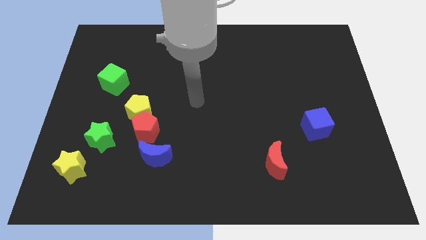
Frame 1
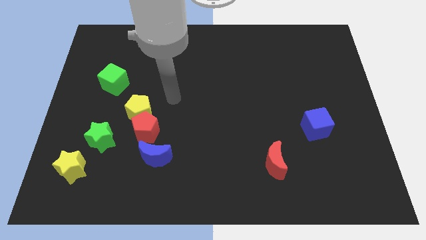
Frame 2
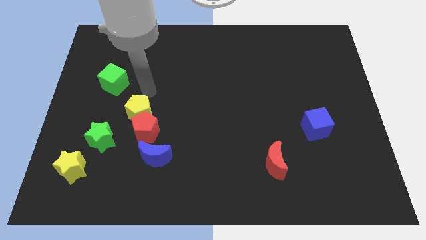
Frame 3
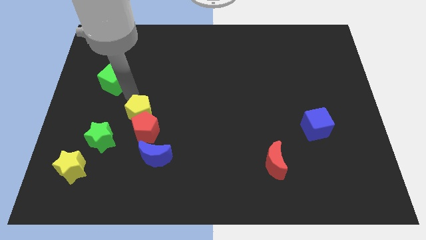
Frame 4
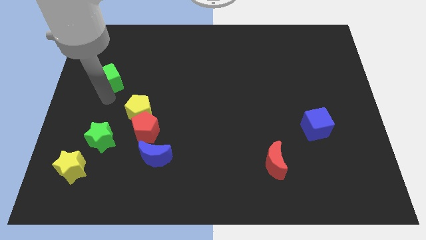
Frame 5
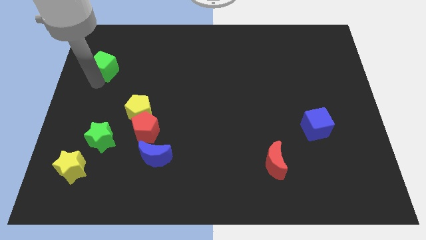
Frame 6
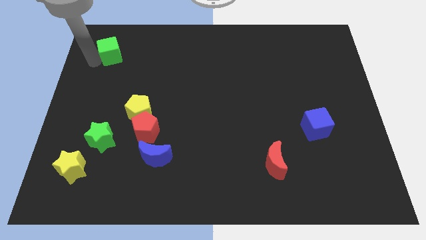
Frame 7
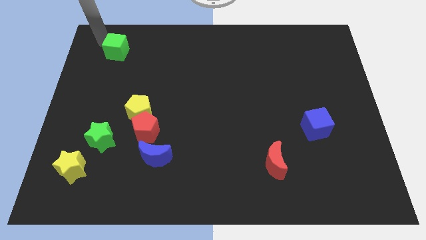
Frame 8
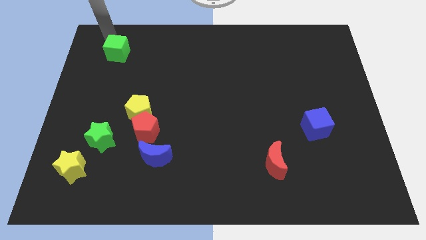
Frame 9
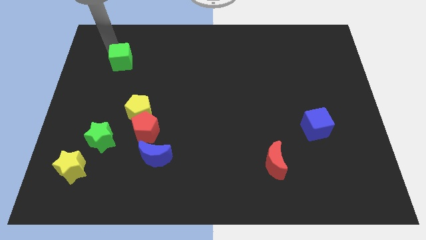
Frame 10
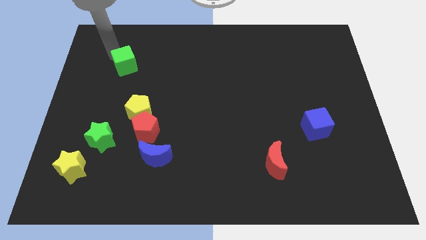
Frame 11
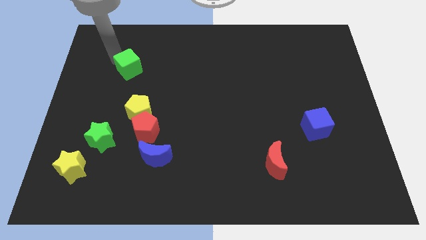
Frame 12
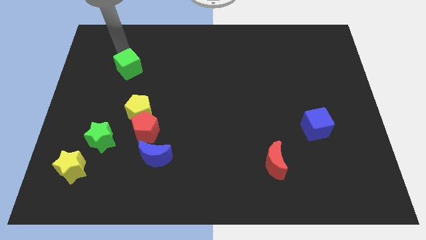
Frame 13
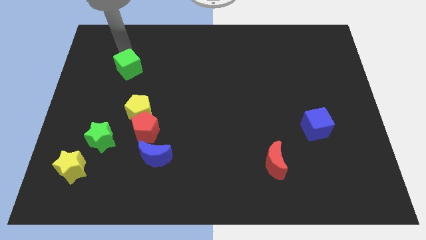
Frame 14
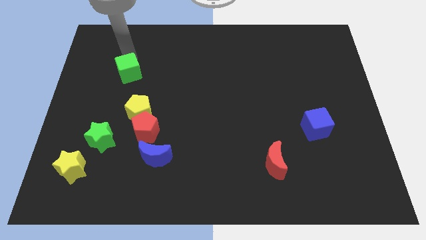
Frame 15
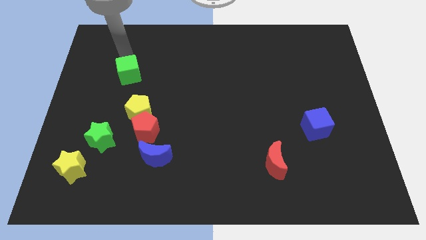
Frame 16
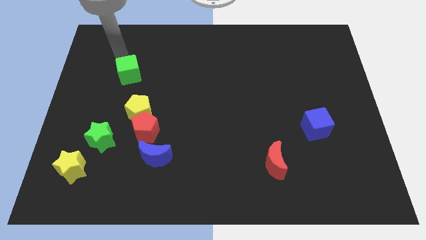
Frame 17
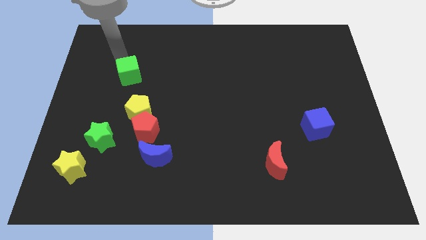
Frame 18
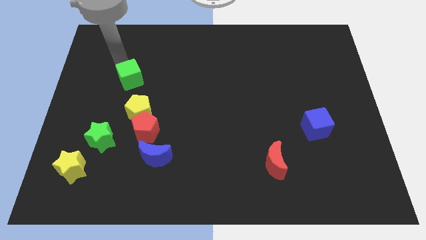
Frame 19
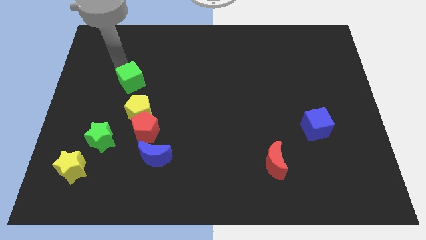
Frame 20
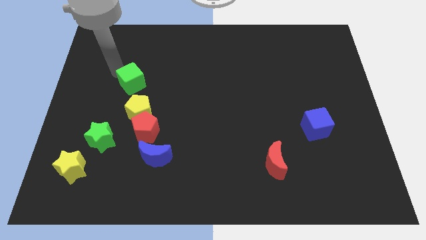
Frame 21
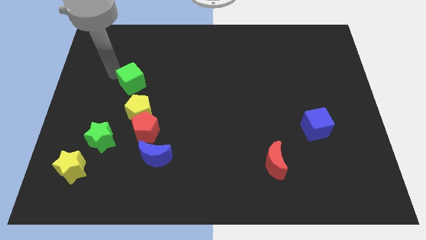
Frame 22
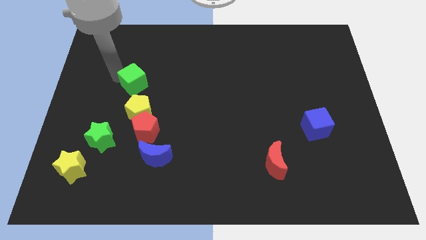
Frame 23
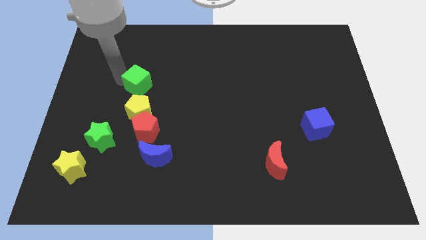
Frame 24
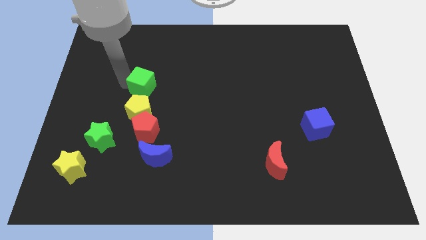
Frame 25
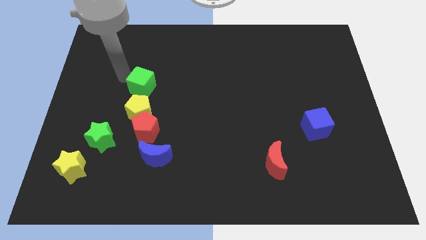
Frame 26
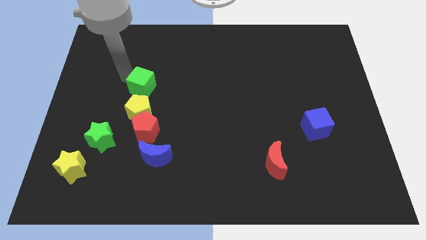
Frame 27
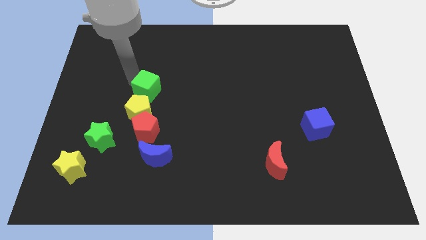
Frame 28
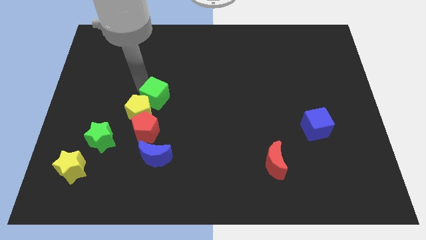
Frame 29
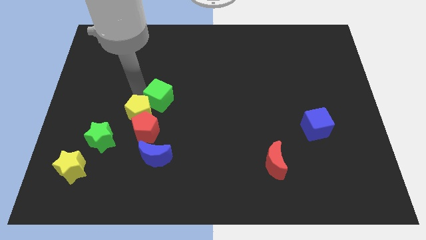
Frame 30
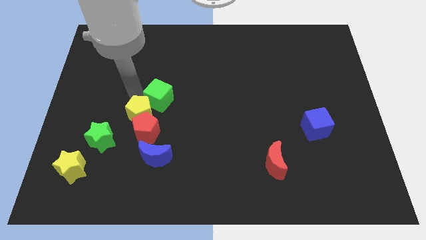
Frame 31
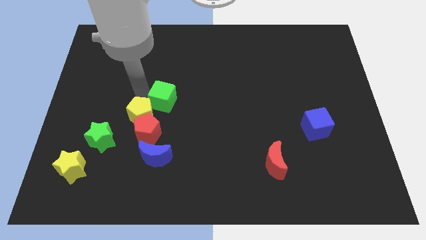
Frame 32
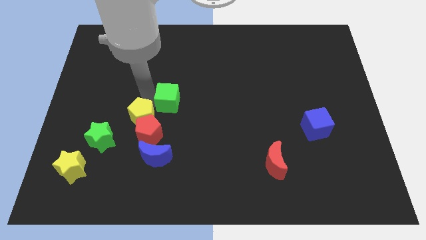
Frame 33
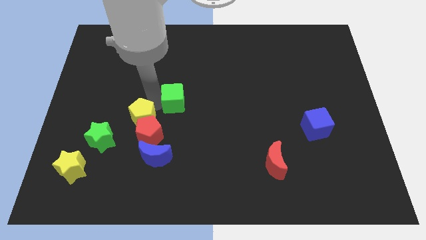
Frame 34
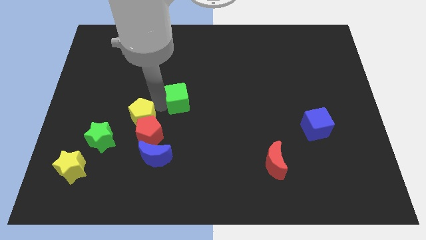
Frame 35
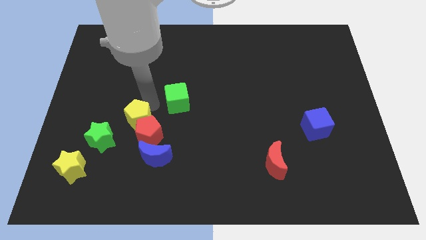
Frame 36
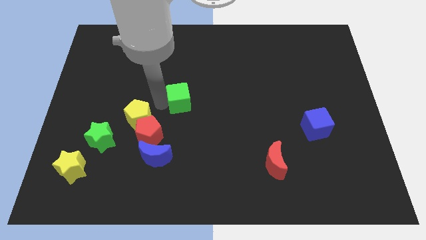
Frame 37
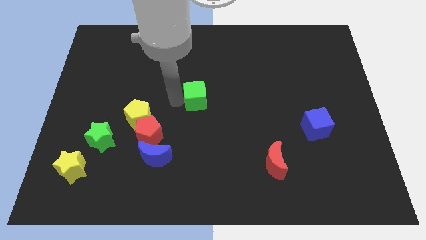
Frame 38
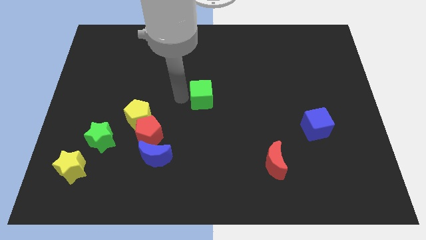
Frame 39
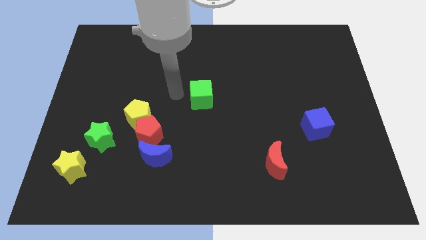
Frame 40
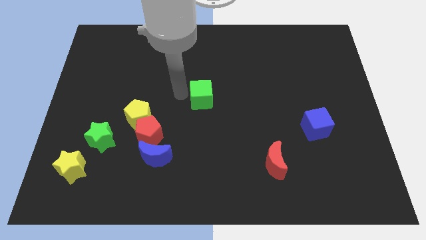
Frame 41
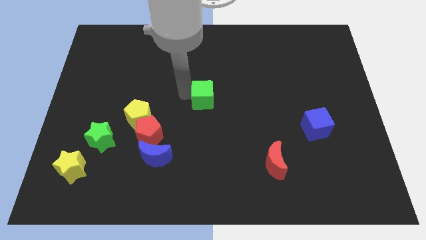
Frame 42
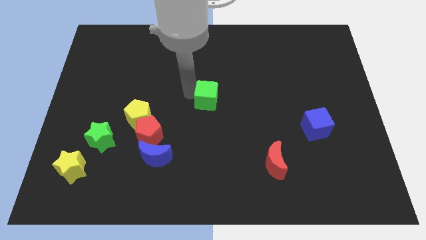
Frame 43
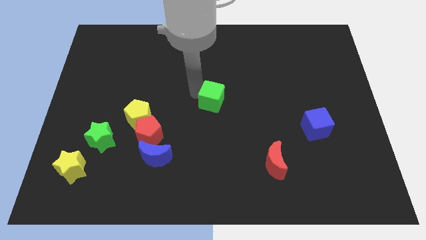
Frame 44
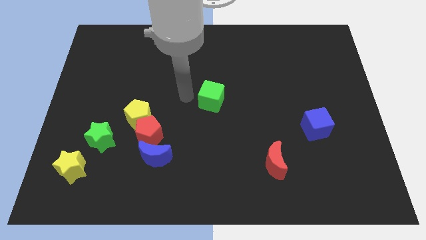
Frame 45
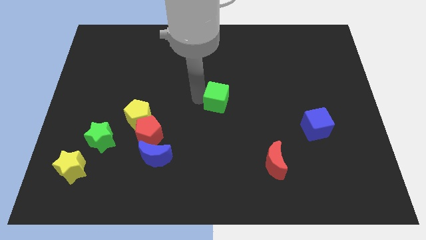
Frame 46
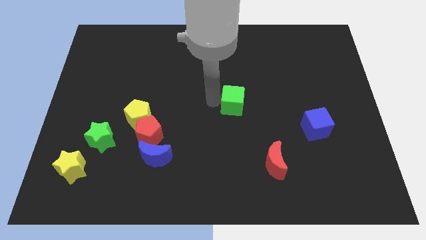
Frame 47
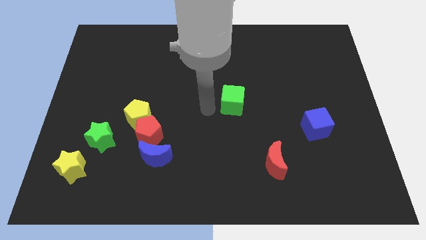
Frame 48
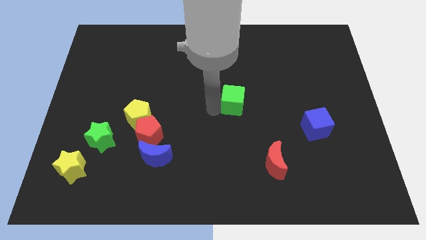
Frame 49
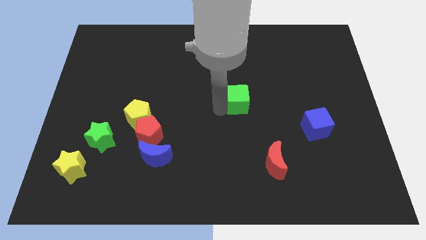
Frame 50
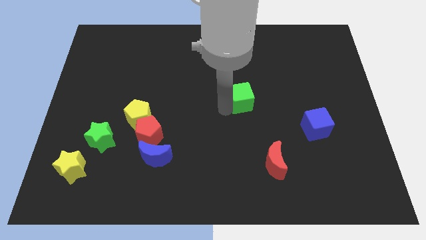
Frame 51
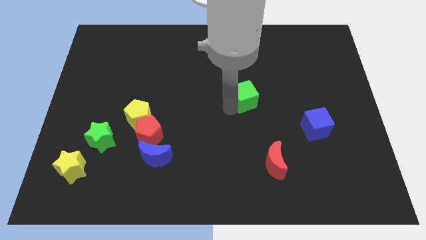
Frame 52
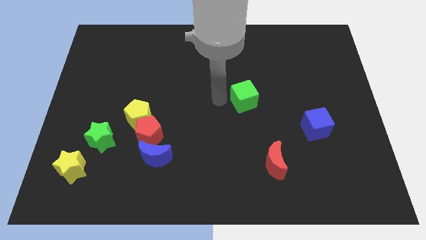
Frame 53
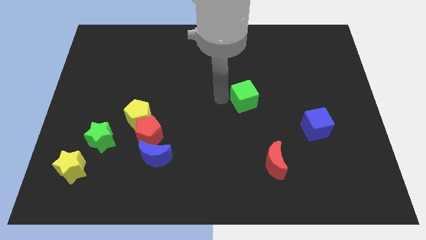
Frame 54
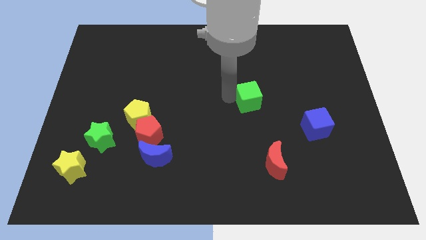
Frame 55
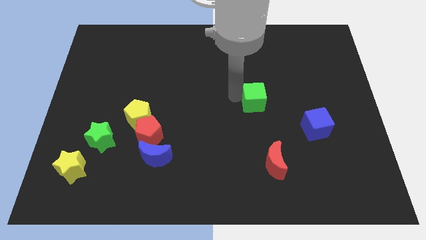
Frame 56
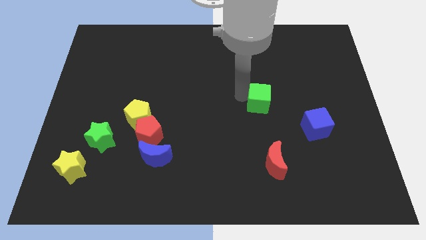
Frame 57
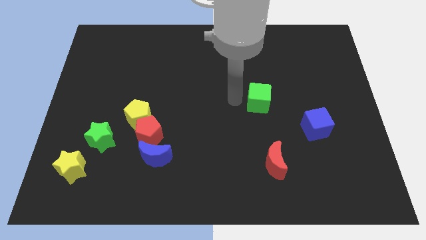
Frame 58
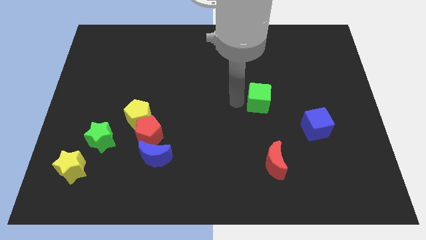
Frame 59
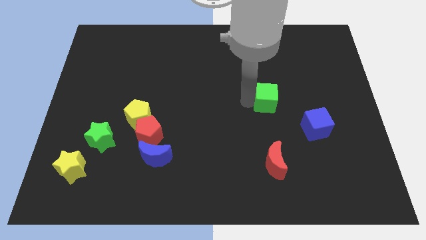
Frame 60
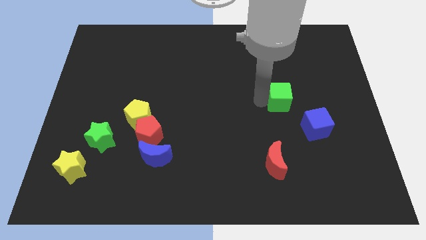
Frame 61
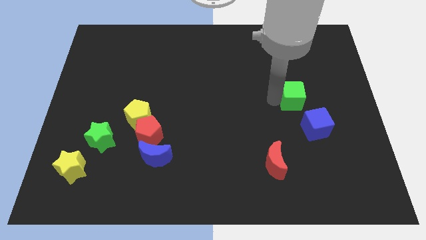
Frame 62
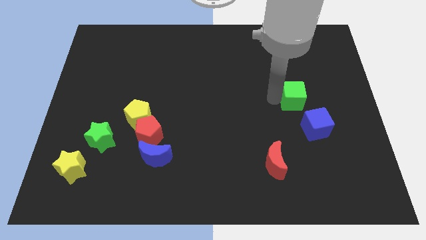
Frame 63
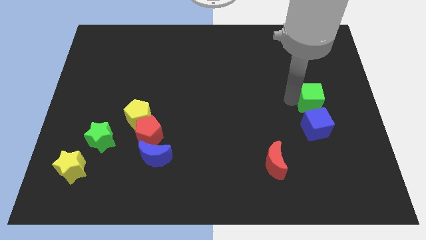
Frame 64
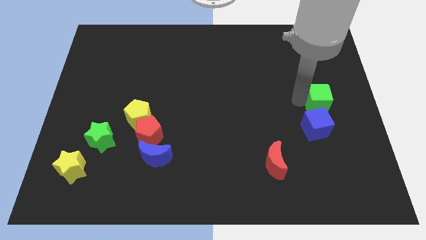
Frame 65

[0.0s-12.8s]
push the green cube to the center right
